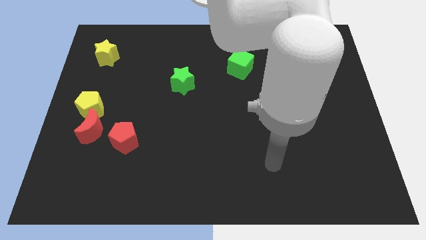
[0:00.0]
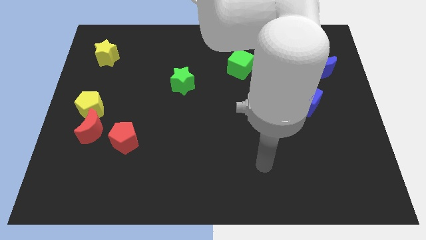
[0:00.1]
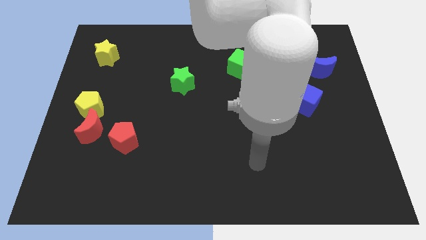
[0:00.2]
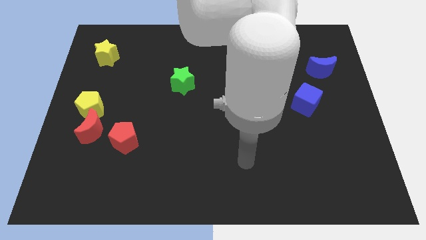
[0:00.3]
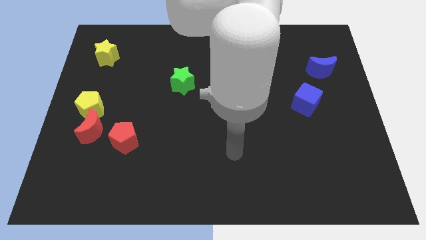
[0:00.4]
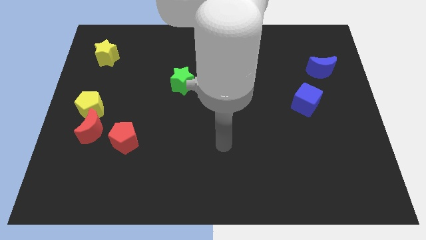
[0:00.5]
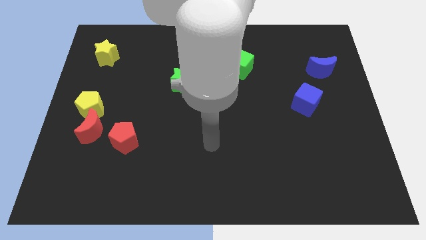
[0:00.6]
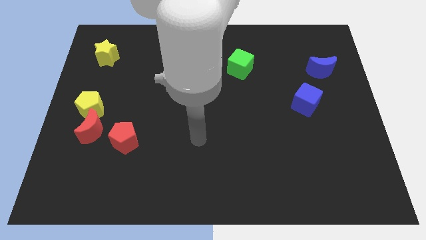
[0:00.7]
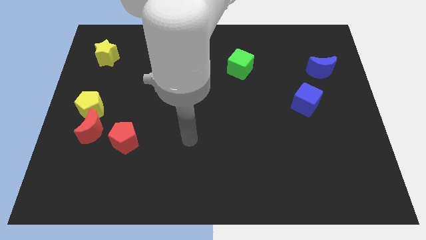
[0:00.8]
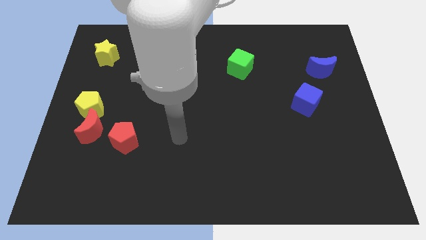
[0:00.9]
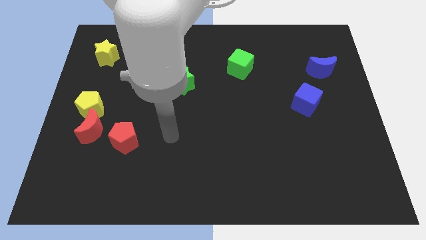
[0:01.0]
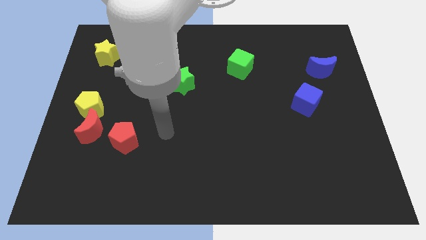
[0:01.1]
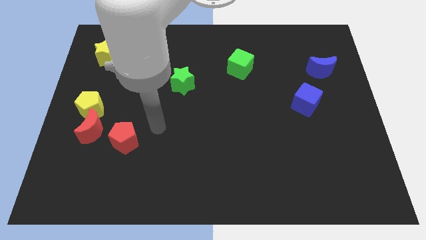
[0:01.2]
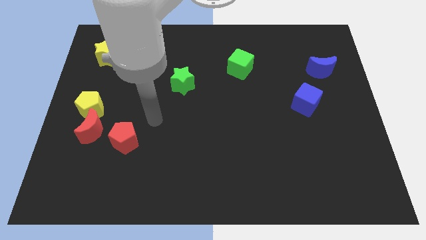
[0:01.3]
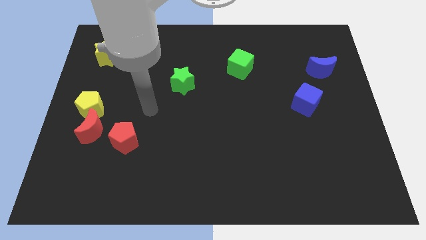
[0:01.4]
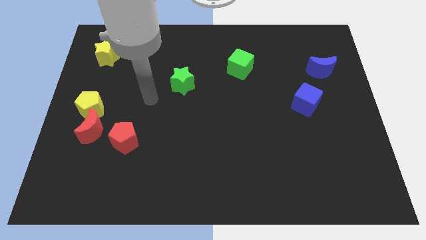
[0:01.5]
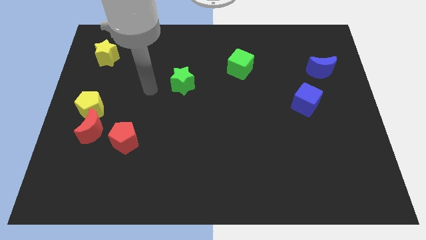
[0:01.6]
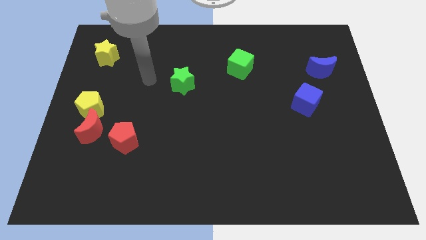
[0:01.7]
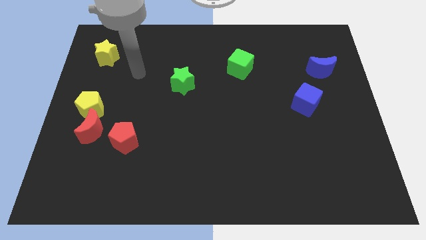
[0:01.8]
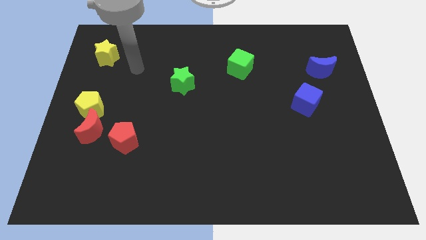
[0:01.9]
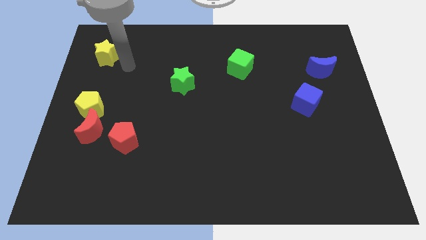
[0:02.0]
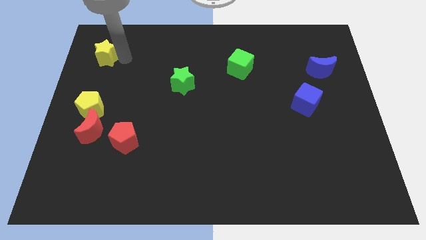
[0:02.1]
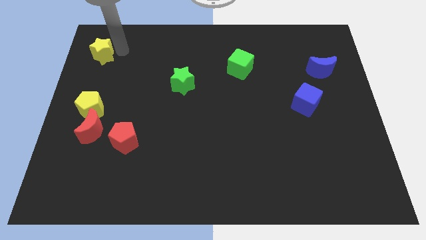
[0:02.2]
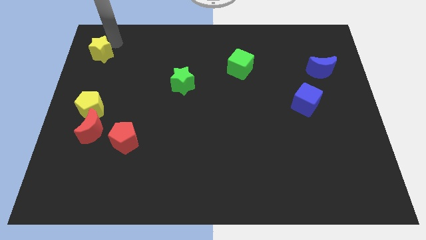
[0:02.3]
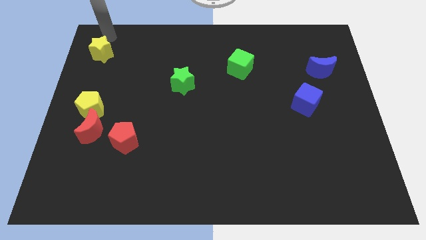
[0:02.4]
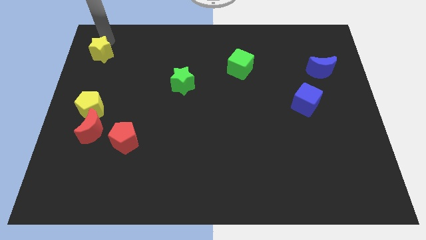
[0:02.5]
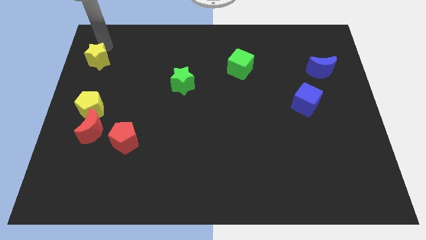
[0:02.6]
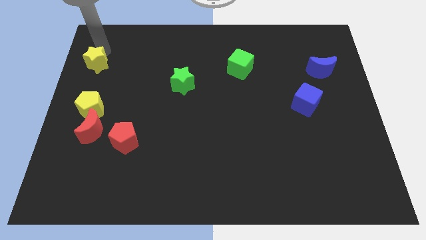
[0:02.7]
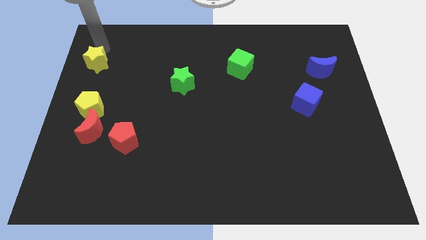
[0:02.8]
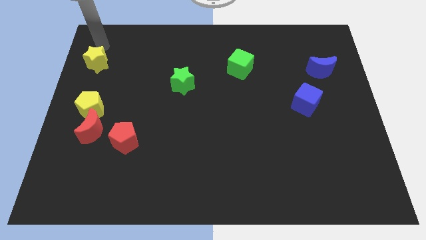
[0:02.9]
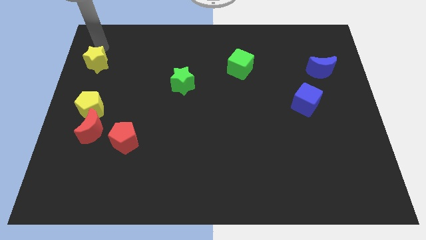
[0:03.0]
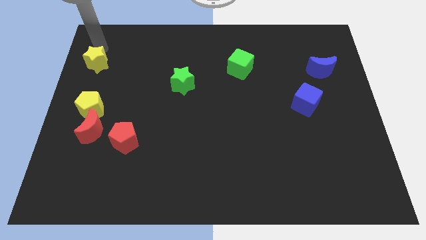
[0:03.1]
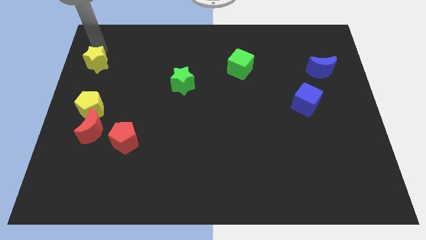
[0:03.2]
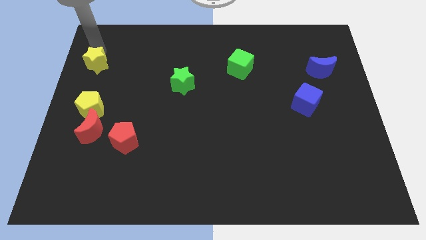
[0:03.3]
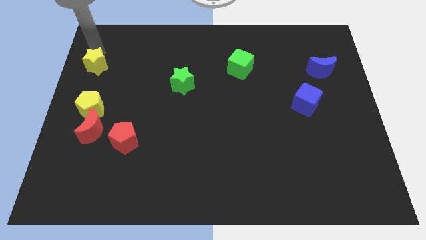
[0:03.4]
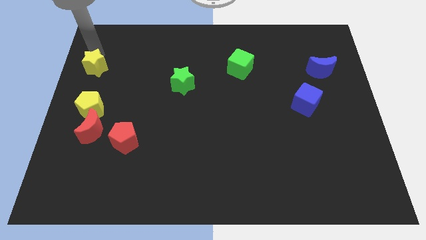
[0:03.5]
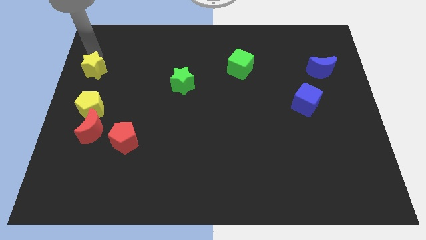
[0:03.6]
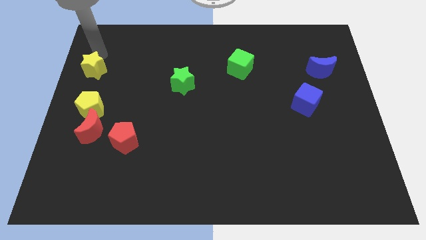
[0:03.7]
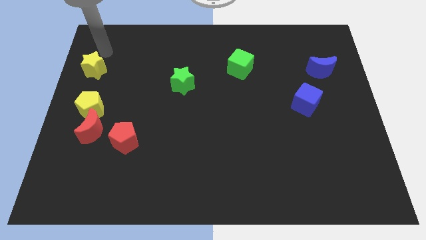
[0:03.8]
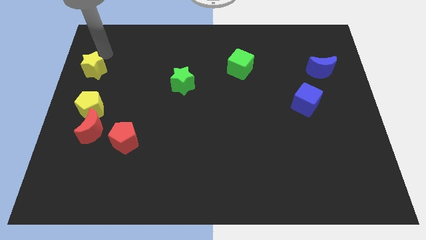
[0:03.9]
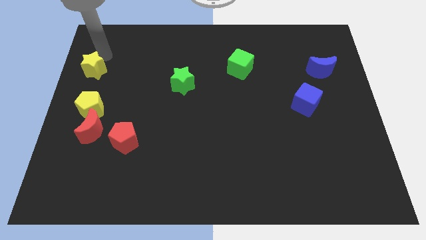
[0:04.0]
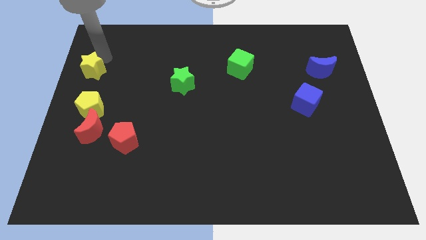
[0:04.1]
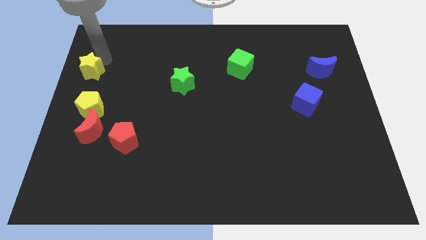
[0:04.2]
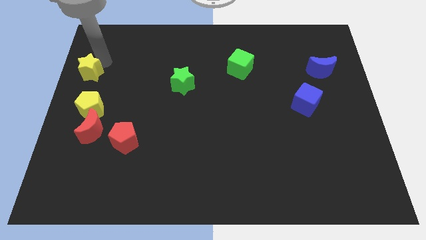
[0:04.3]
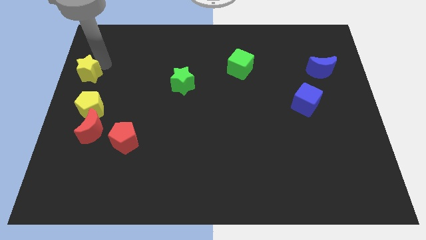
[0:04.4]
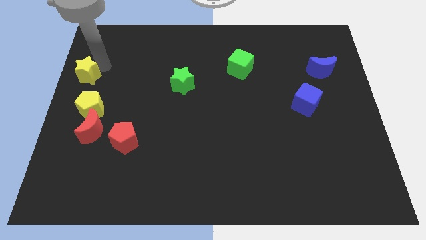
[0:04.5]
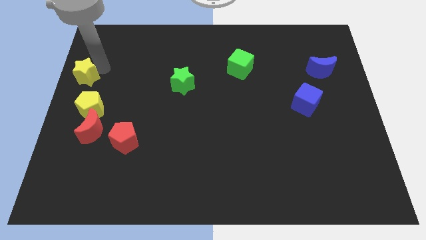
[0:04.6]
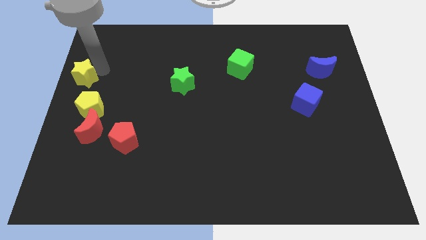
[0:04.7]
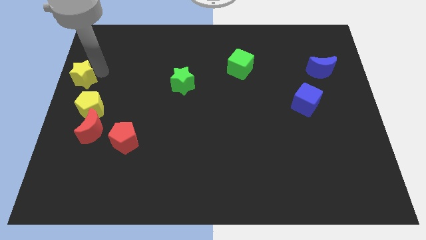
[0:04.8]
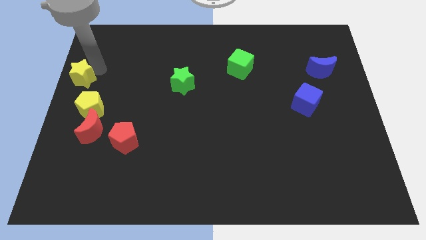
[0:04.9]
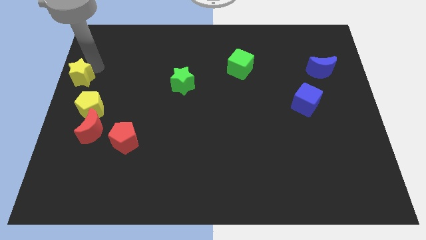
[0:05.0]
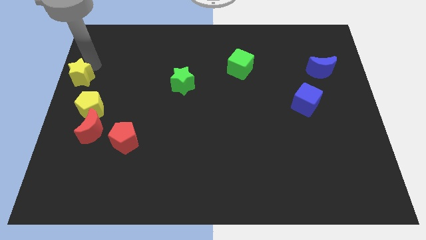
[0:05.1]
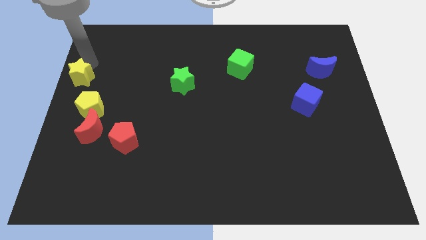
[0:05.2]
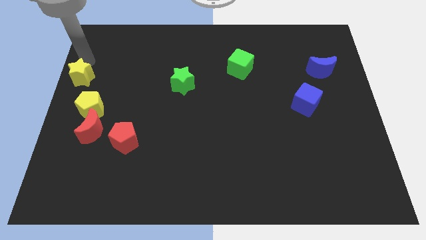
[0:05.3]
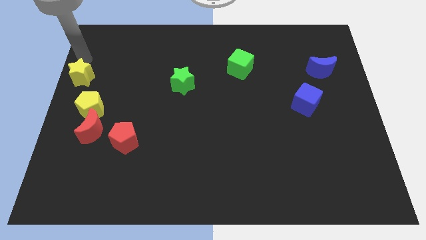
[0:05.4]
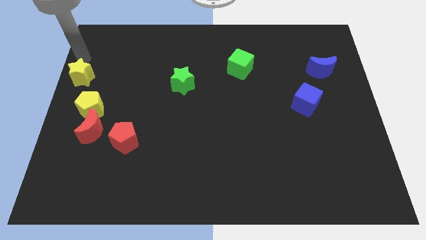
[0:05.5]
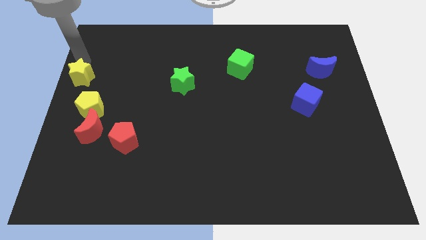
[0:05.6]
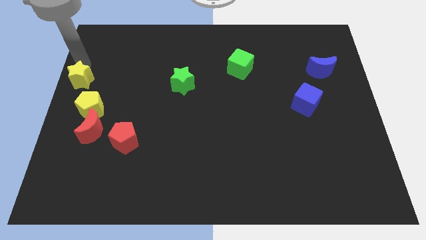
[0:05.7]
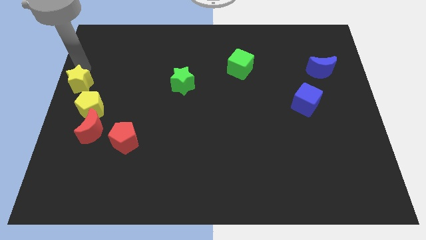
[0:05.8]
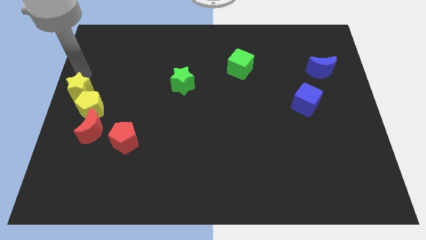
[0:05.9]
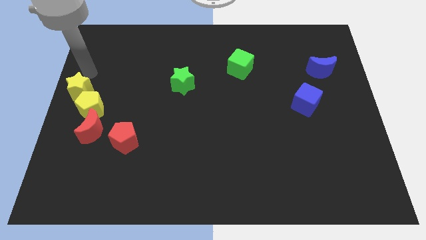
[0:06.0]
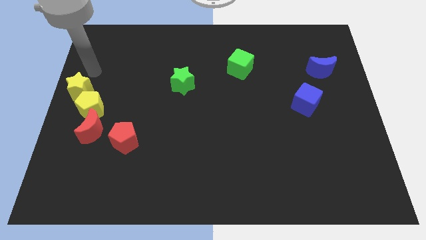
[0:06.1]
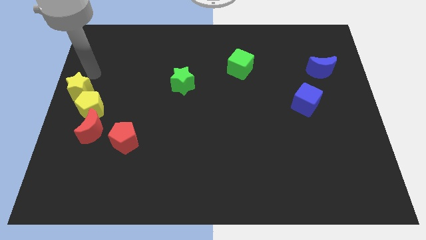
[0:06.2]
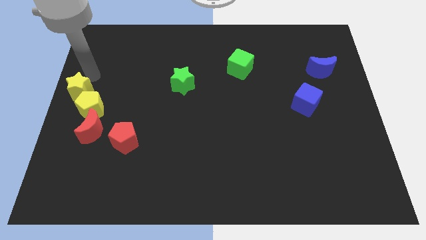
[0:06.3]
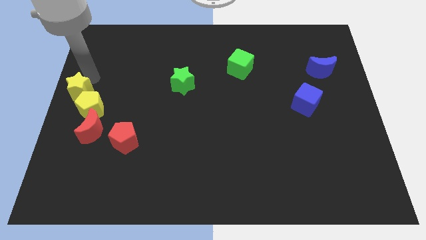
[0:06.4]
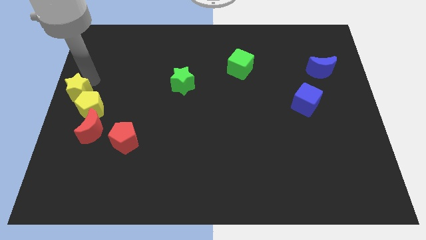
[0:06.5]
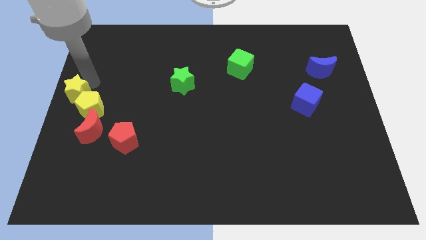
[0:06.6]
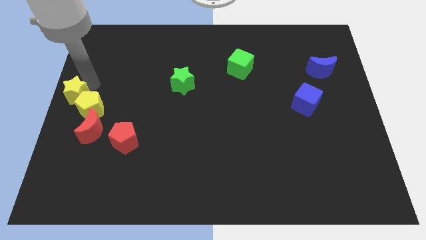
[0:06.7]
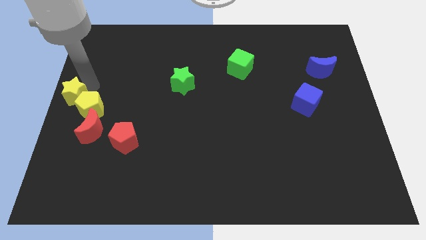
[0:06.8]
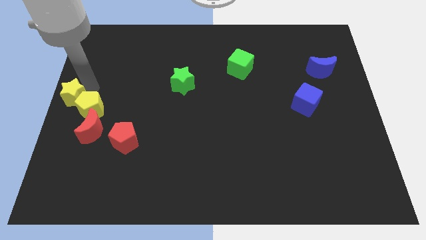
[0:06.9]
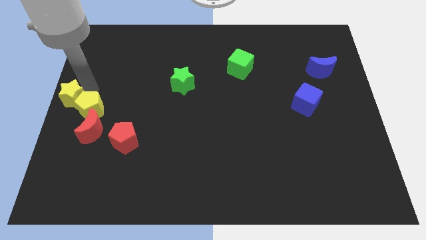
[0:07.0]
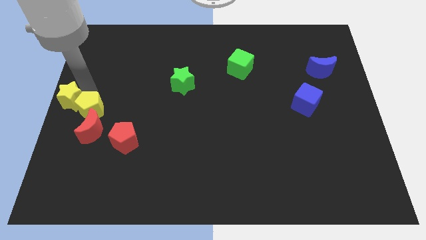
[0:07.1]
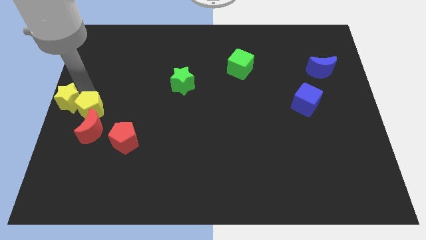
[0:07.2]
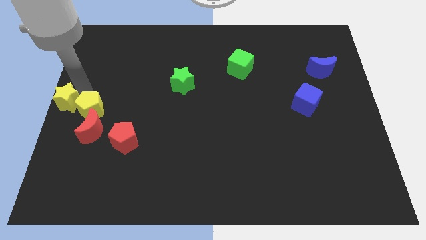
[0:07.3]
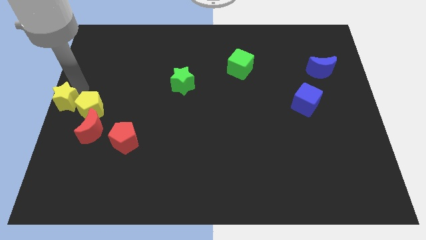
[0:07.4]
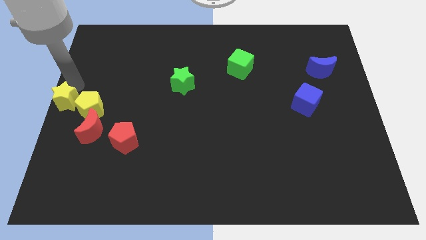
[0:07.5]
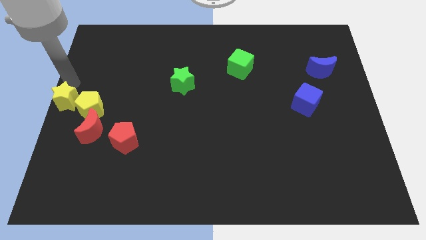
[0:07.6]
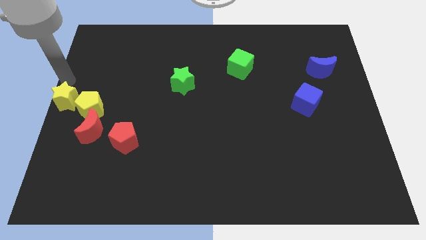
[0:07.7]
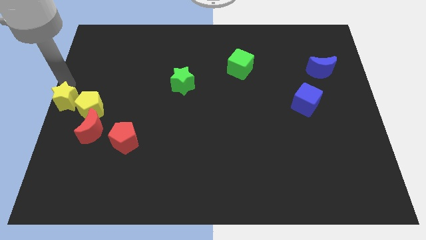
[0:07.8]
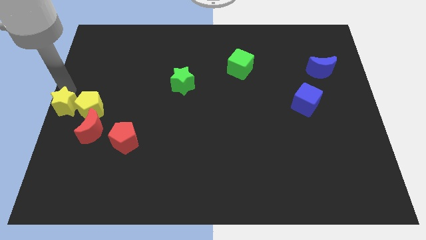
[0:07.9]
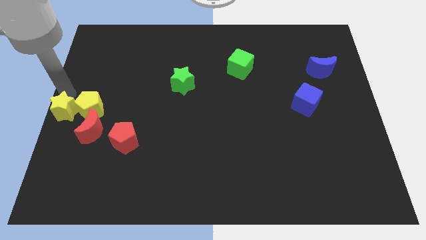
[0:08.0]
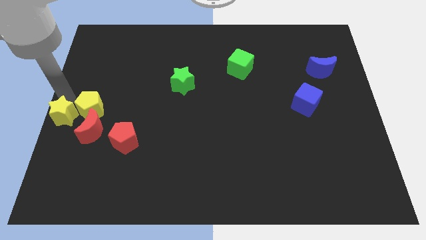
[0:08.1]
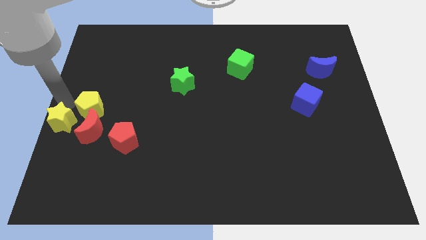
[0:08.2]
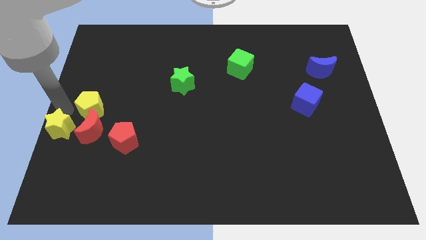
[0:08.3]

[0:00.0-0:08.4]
push the yellow star down
